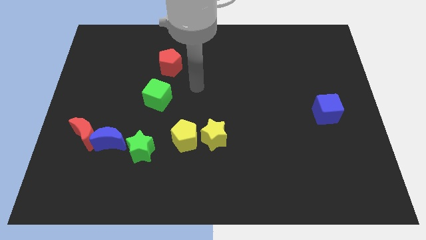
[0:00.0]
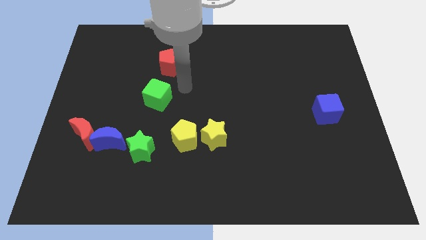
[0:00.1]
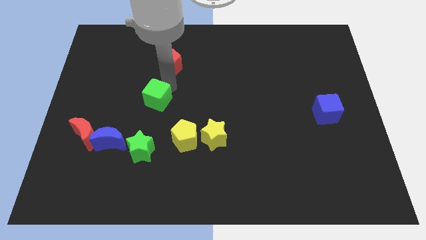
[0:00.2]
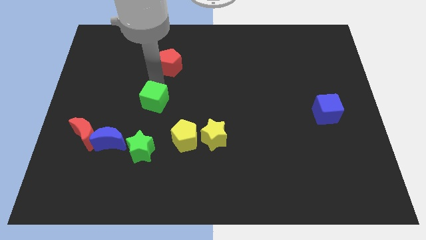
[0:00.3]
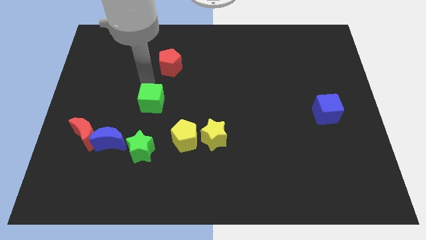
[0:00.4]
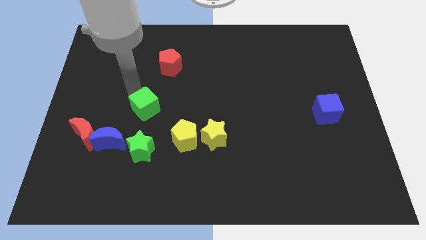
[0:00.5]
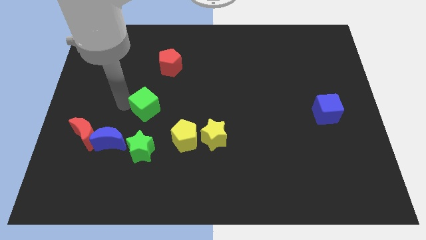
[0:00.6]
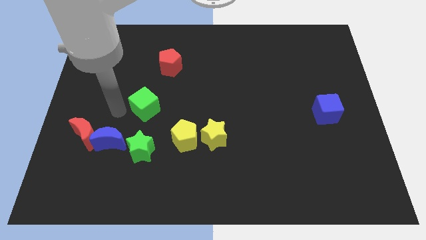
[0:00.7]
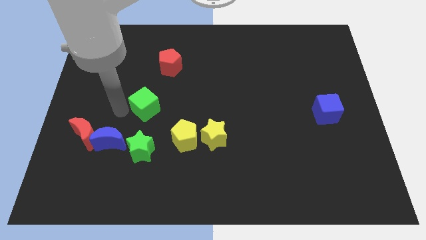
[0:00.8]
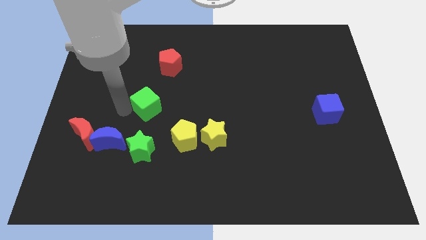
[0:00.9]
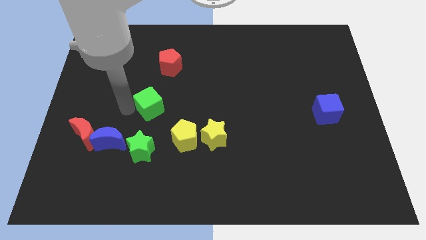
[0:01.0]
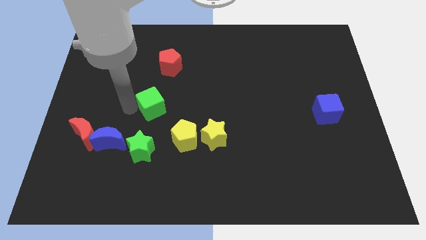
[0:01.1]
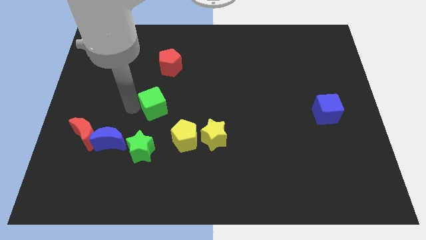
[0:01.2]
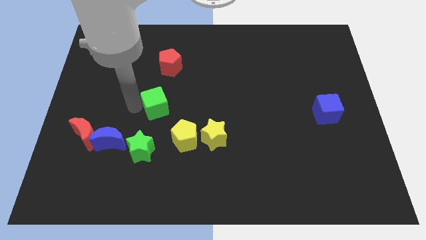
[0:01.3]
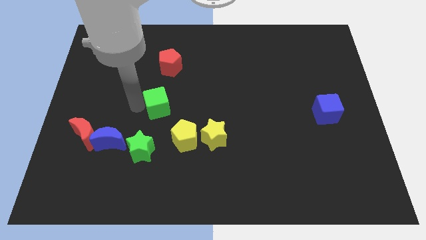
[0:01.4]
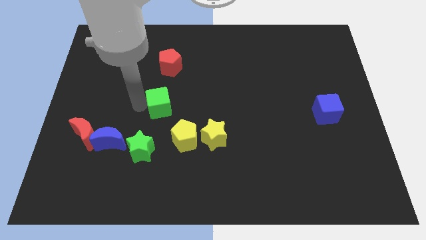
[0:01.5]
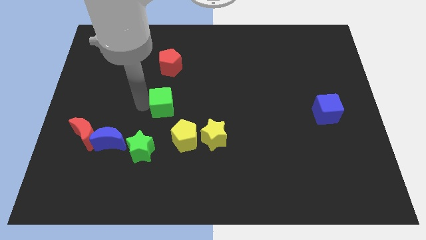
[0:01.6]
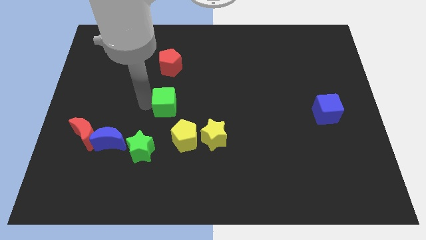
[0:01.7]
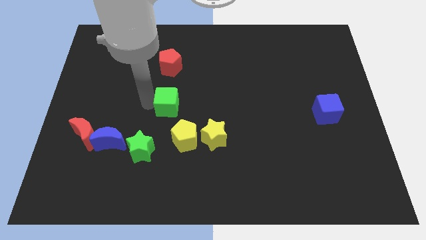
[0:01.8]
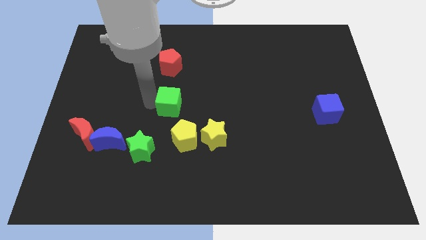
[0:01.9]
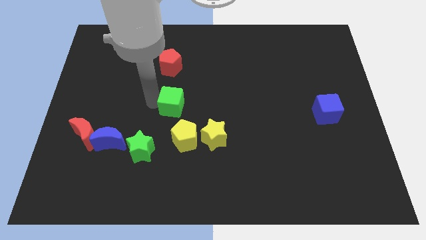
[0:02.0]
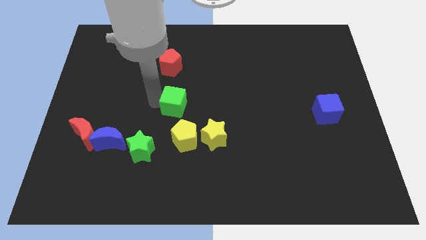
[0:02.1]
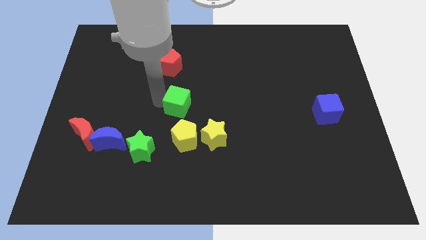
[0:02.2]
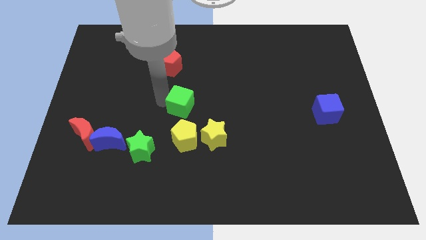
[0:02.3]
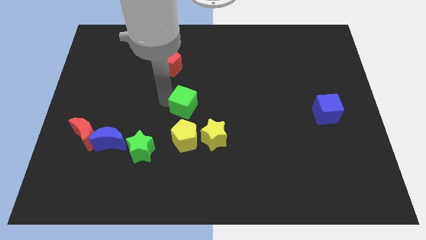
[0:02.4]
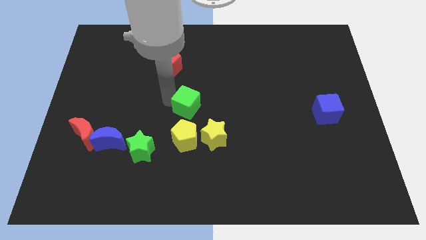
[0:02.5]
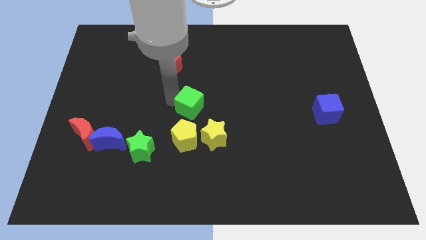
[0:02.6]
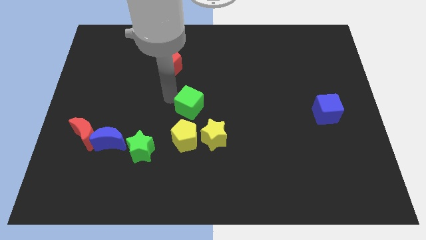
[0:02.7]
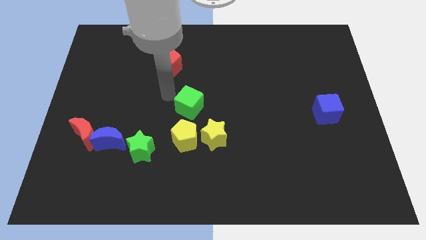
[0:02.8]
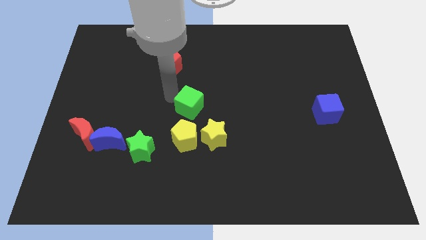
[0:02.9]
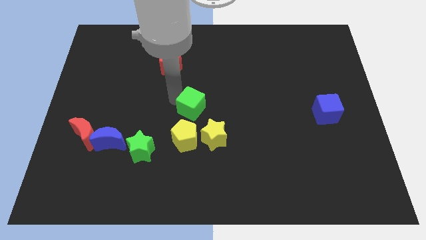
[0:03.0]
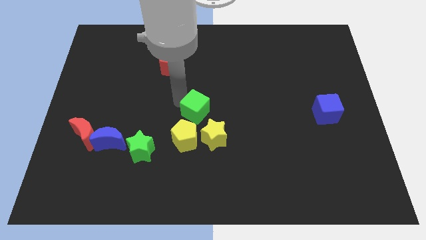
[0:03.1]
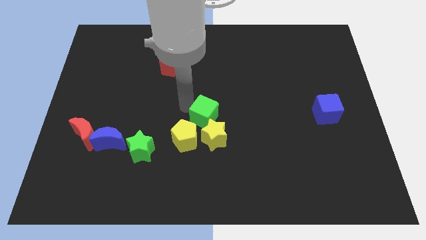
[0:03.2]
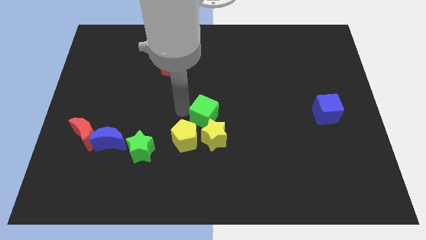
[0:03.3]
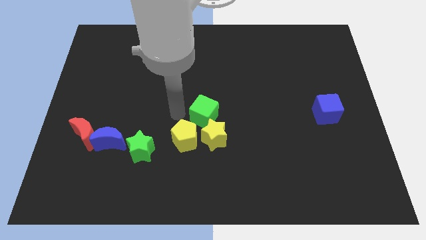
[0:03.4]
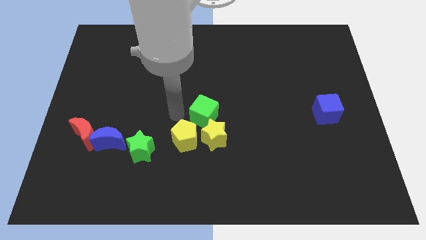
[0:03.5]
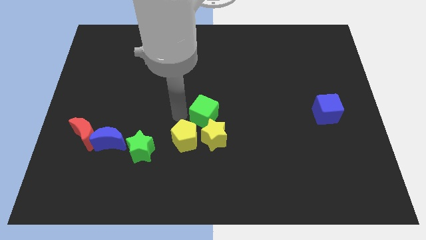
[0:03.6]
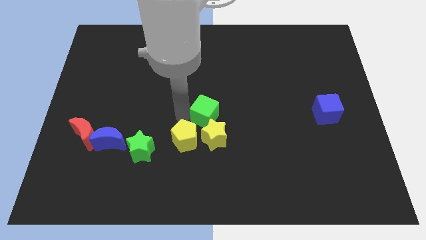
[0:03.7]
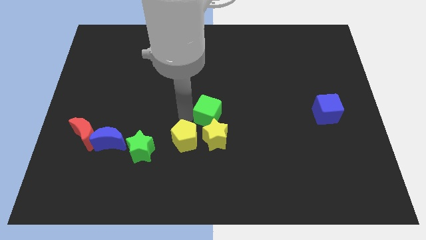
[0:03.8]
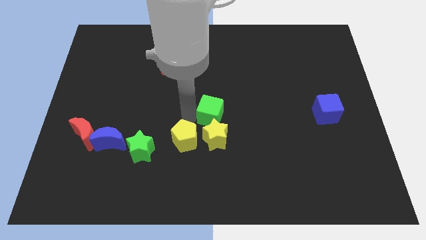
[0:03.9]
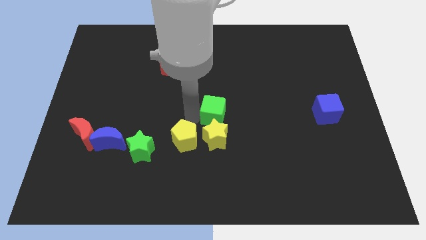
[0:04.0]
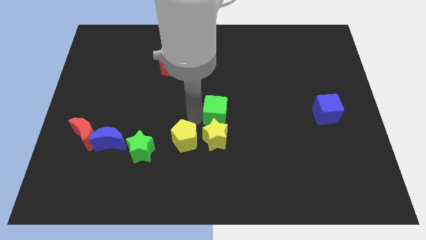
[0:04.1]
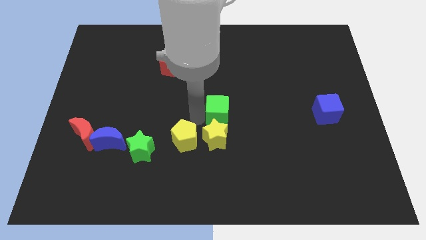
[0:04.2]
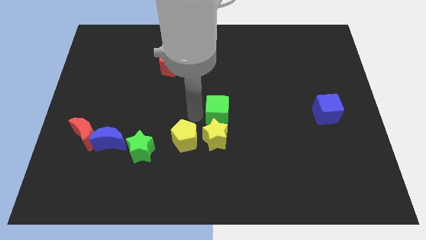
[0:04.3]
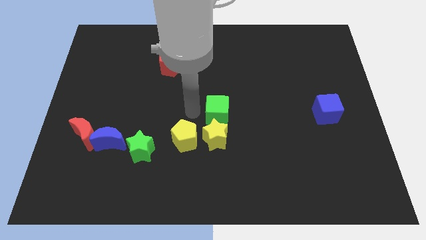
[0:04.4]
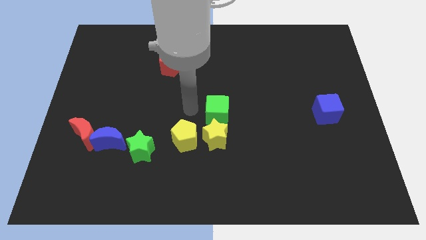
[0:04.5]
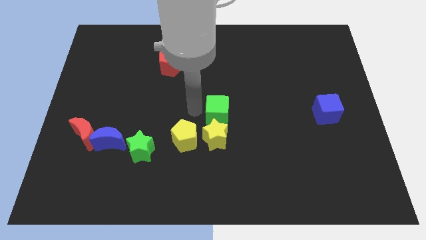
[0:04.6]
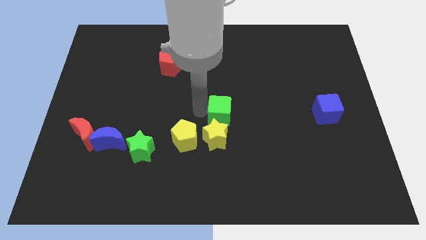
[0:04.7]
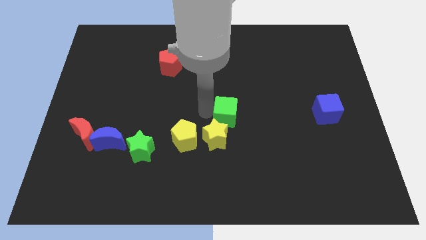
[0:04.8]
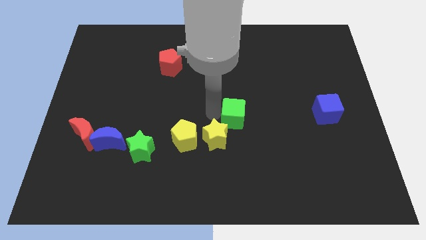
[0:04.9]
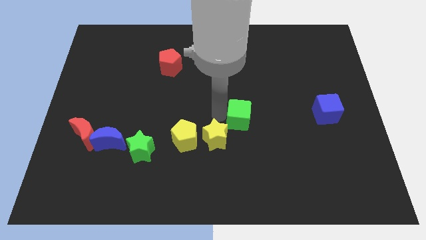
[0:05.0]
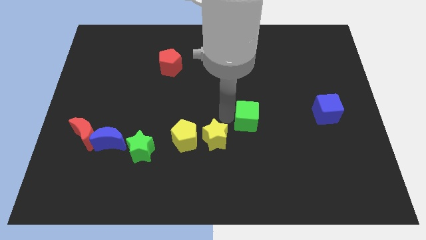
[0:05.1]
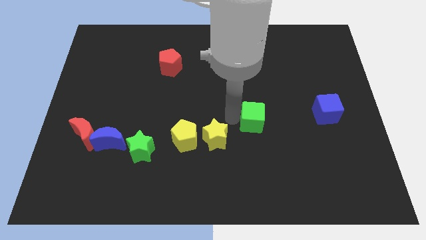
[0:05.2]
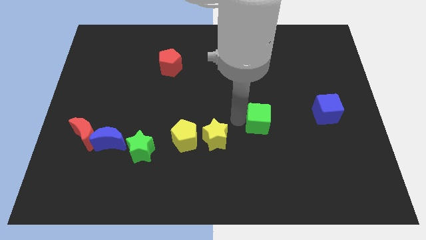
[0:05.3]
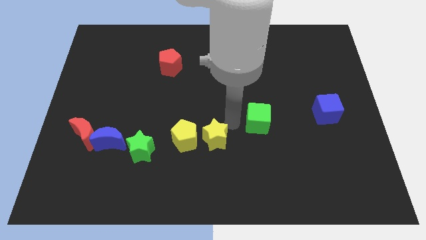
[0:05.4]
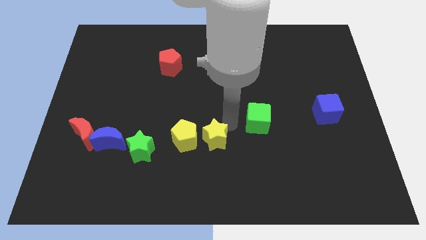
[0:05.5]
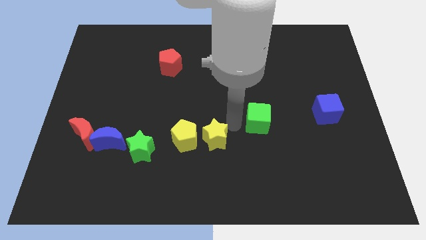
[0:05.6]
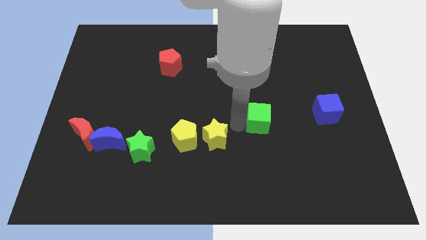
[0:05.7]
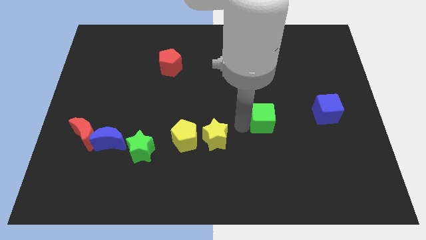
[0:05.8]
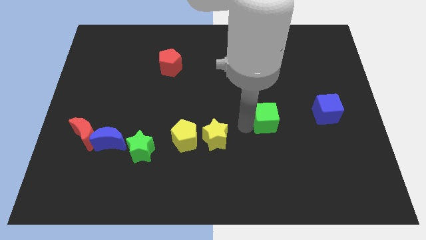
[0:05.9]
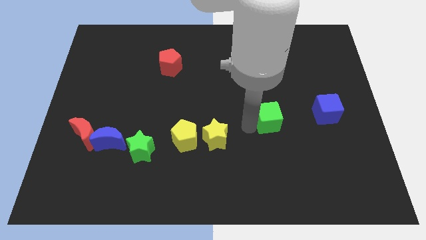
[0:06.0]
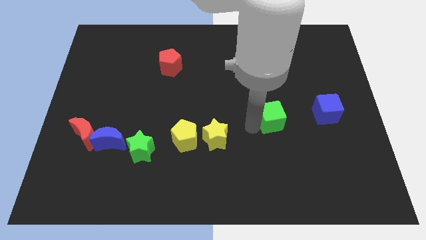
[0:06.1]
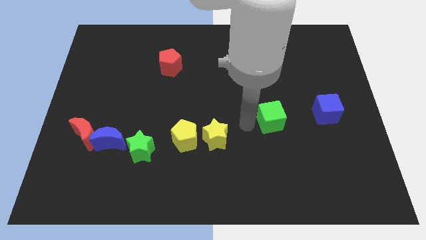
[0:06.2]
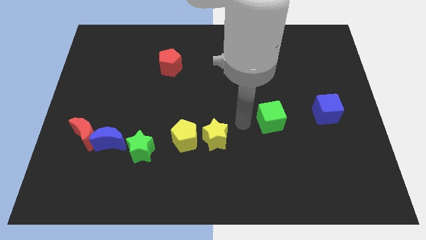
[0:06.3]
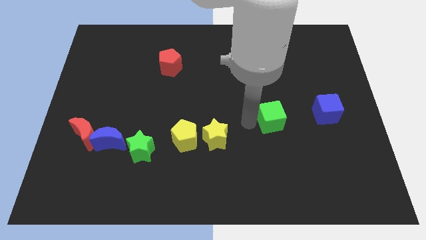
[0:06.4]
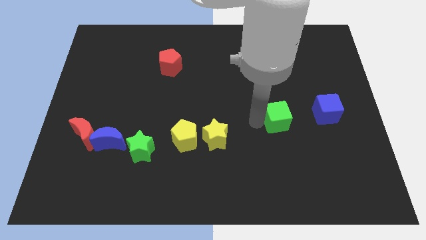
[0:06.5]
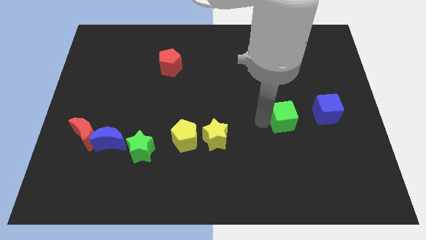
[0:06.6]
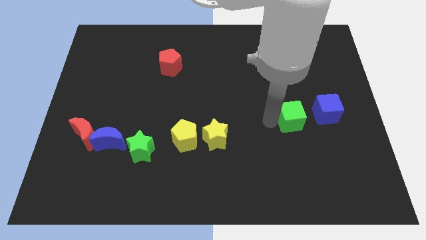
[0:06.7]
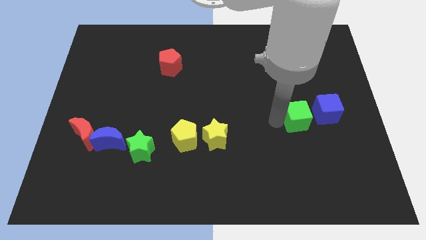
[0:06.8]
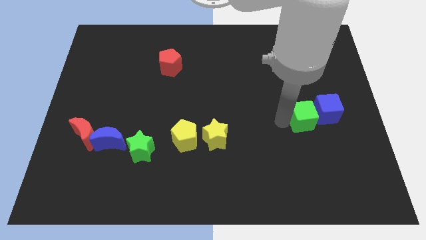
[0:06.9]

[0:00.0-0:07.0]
push the green cube next to the blue cube

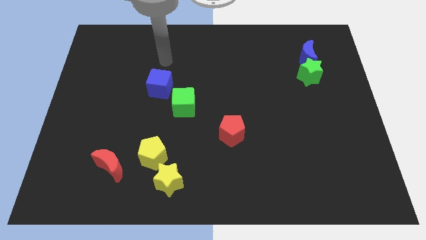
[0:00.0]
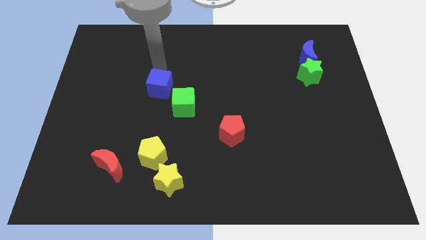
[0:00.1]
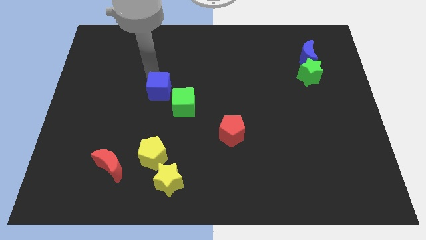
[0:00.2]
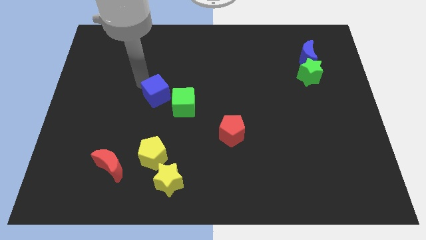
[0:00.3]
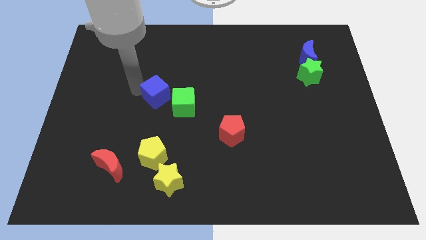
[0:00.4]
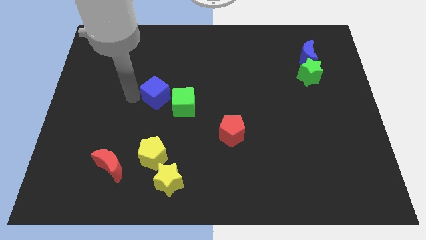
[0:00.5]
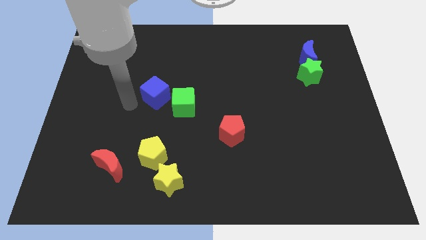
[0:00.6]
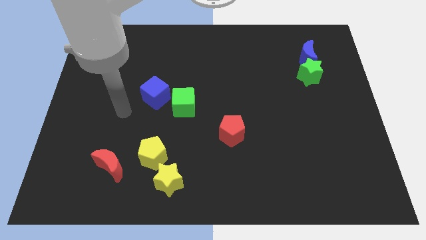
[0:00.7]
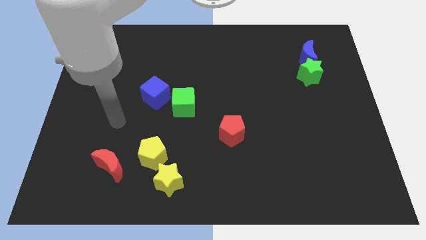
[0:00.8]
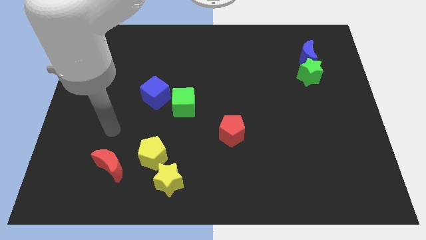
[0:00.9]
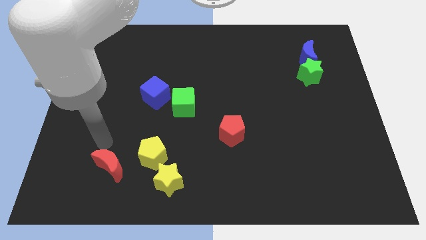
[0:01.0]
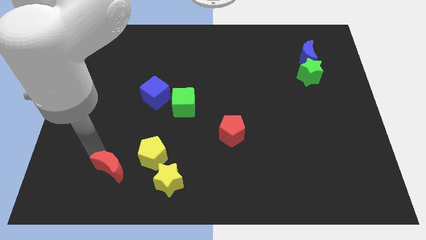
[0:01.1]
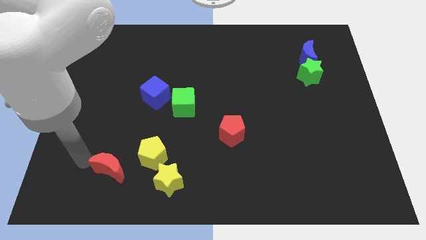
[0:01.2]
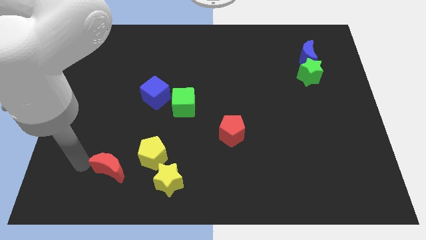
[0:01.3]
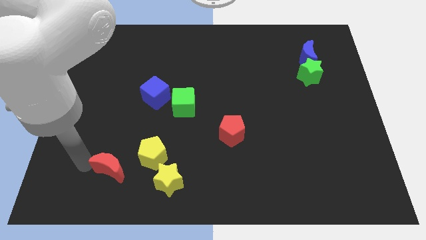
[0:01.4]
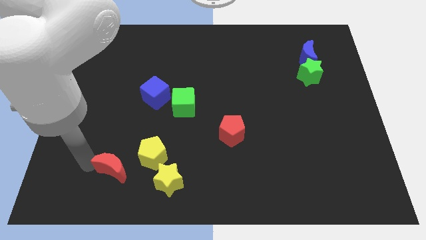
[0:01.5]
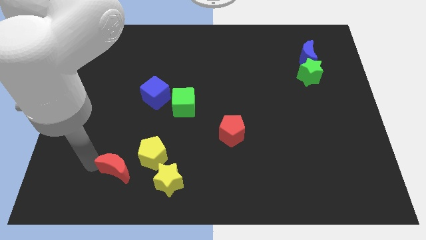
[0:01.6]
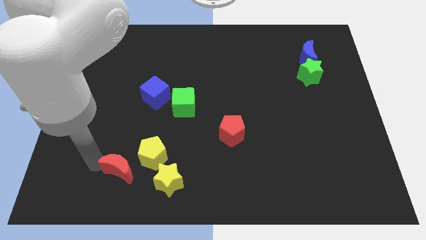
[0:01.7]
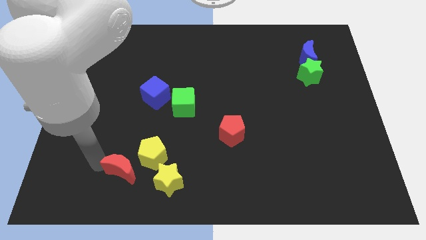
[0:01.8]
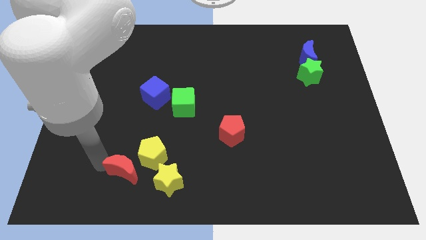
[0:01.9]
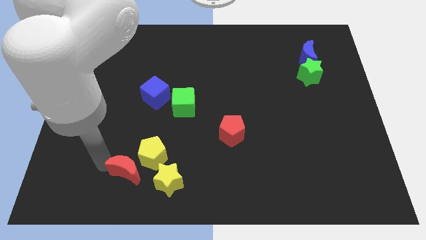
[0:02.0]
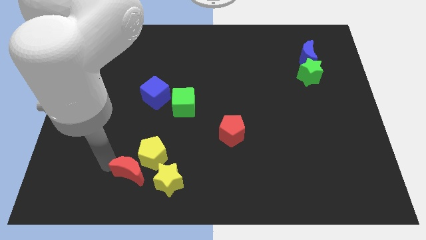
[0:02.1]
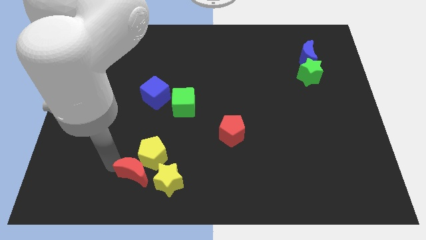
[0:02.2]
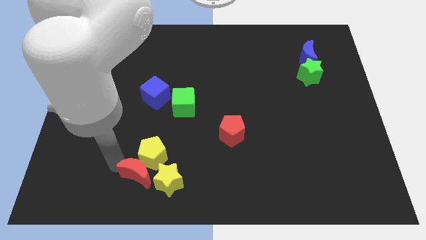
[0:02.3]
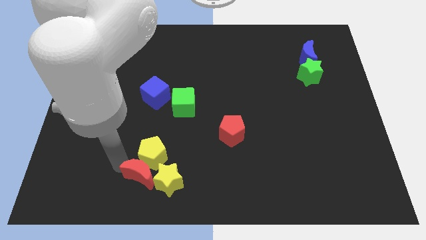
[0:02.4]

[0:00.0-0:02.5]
move the red moon next to the yellow star
